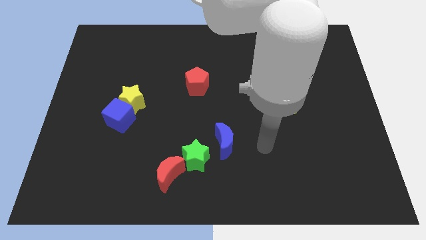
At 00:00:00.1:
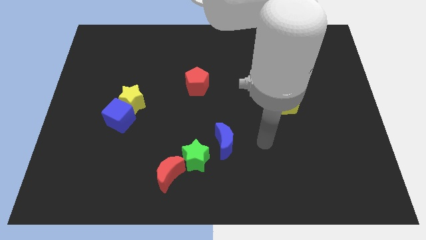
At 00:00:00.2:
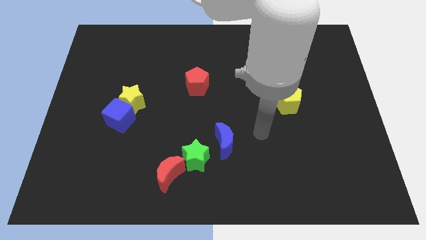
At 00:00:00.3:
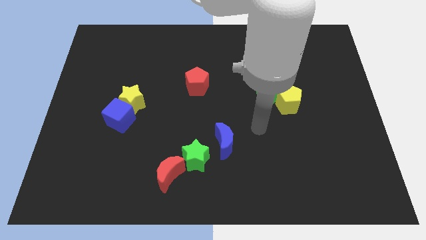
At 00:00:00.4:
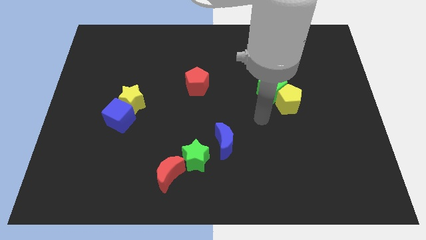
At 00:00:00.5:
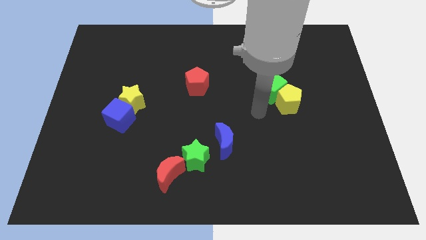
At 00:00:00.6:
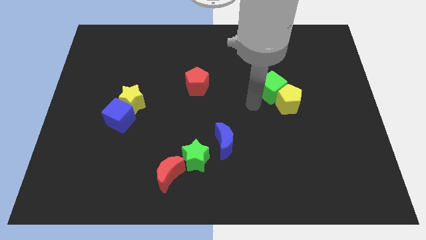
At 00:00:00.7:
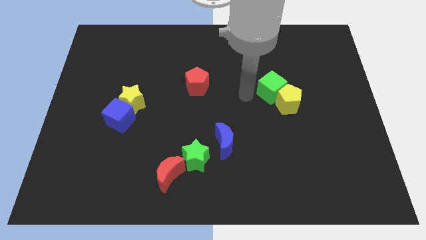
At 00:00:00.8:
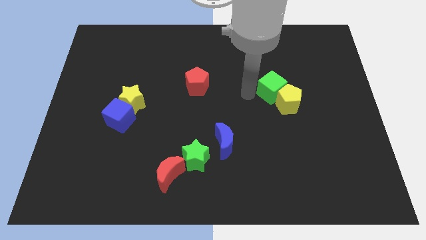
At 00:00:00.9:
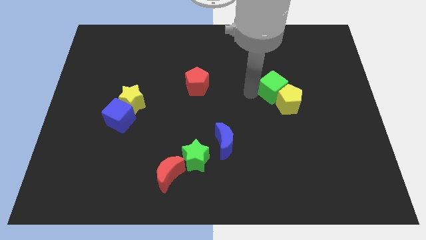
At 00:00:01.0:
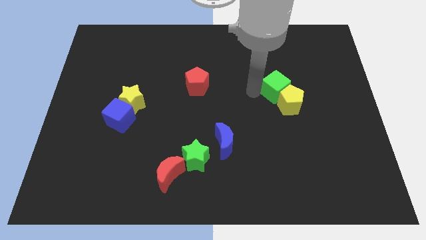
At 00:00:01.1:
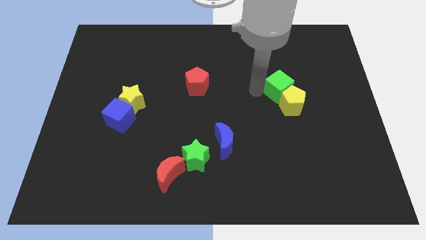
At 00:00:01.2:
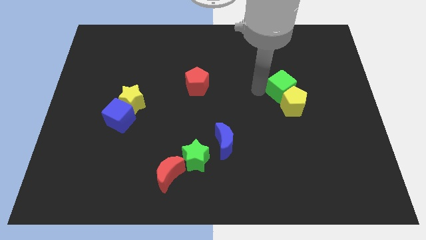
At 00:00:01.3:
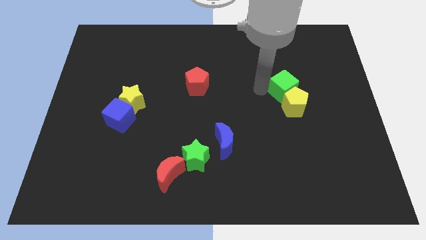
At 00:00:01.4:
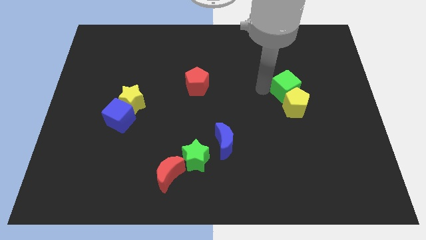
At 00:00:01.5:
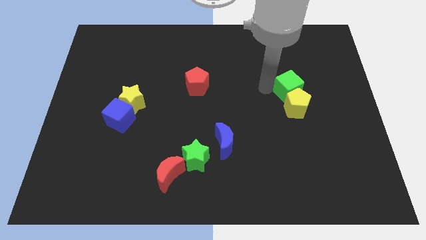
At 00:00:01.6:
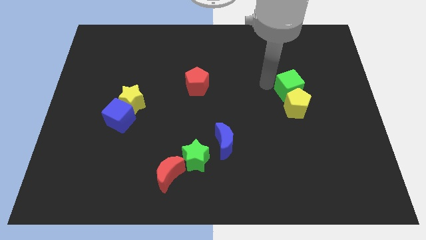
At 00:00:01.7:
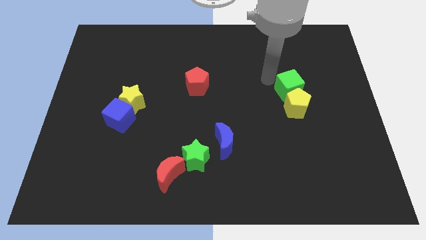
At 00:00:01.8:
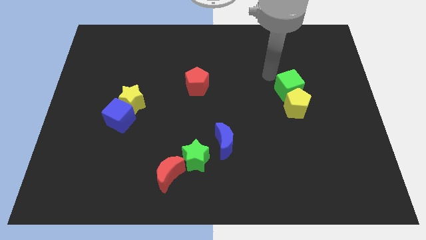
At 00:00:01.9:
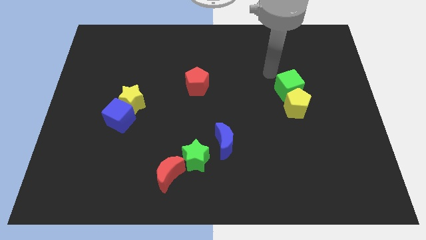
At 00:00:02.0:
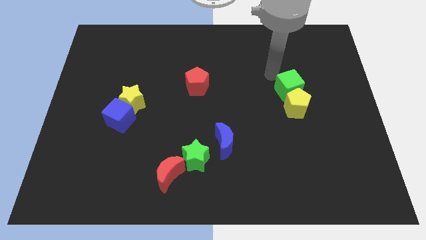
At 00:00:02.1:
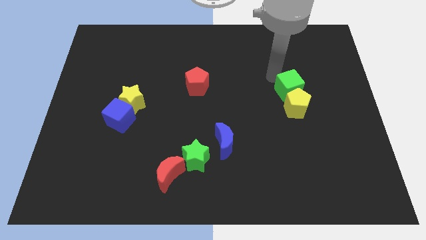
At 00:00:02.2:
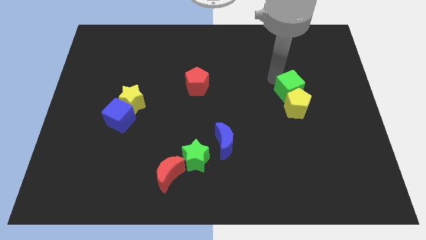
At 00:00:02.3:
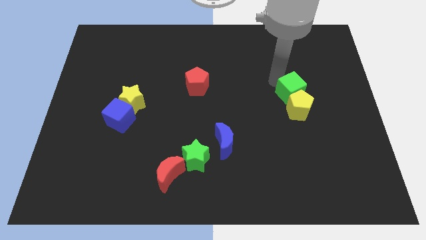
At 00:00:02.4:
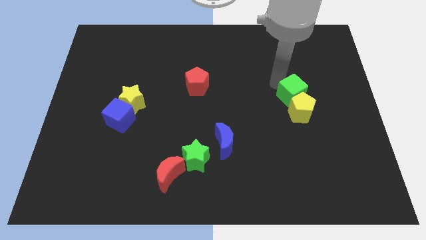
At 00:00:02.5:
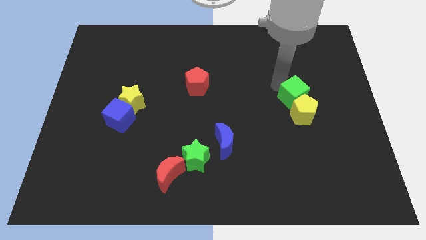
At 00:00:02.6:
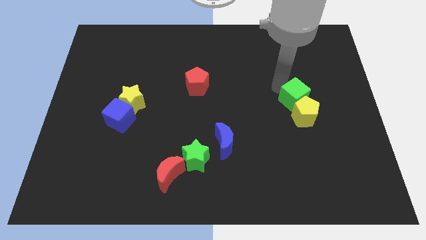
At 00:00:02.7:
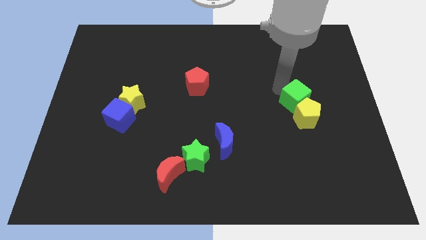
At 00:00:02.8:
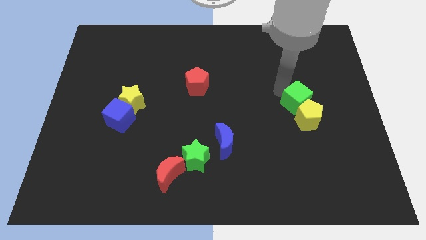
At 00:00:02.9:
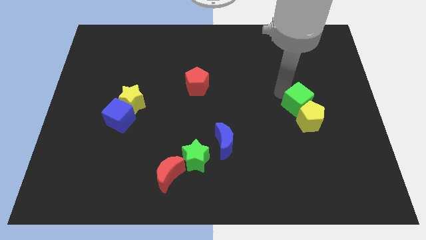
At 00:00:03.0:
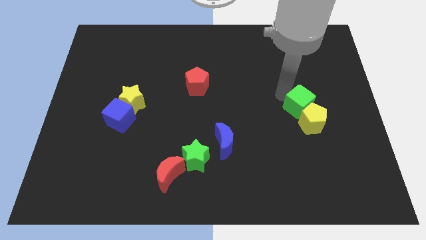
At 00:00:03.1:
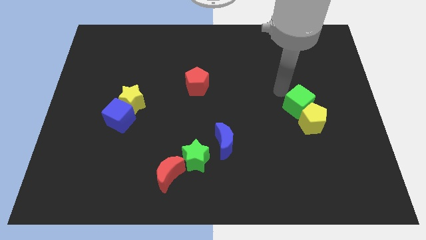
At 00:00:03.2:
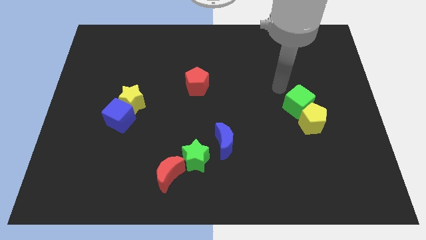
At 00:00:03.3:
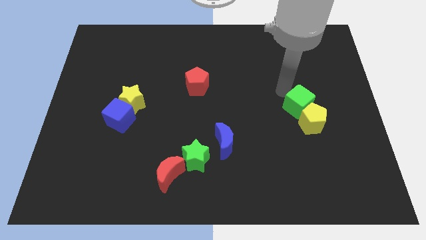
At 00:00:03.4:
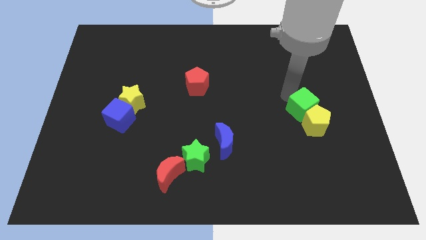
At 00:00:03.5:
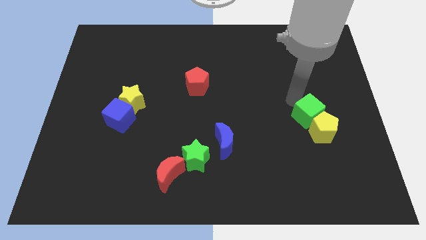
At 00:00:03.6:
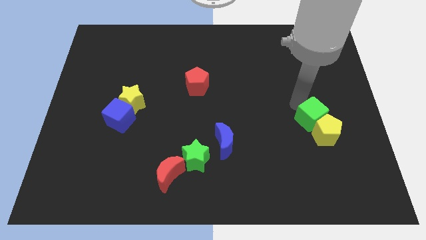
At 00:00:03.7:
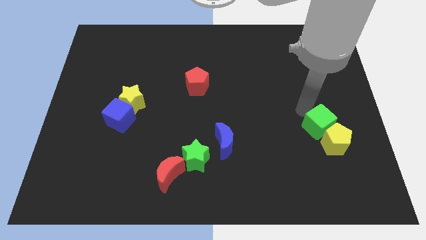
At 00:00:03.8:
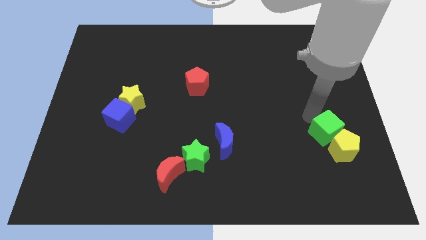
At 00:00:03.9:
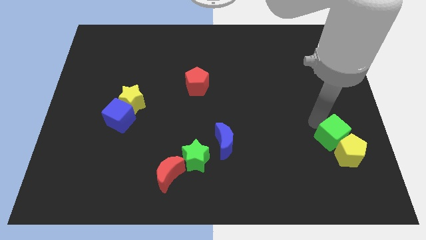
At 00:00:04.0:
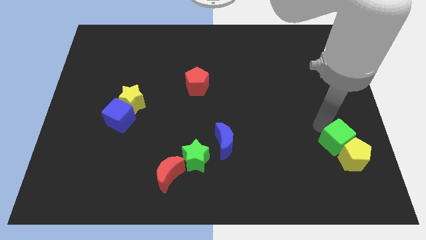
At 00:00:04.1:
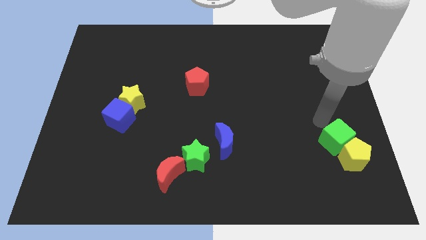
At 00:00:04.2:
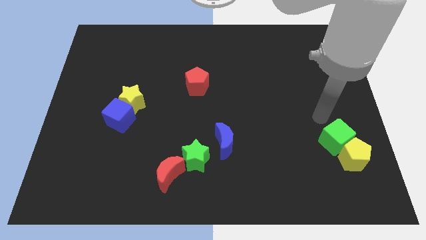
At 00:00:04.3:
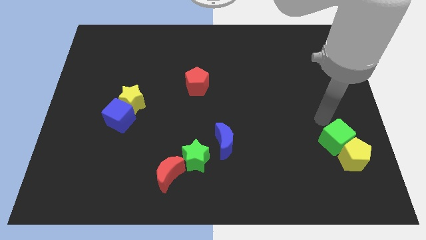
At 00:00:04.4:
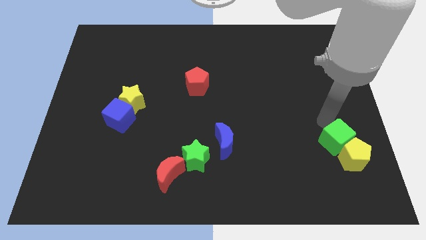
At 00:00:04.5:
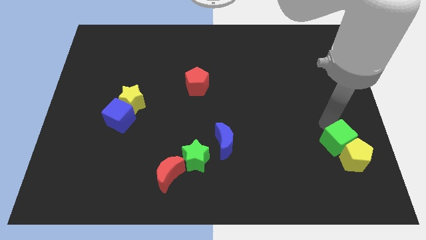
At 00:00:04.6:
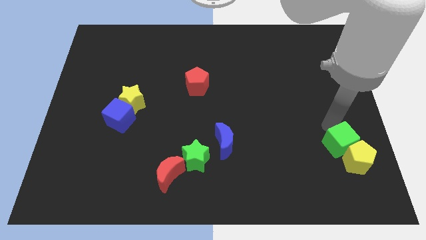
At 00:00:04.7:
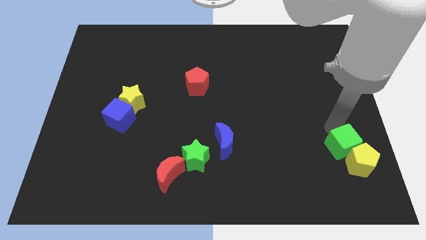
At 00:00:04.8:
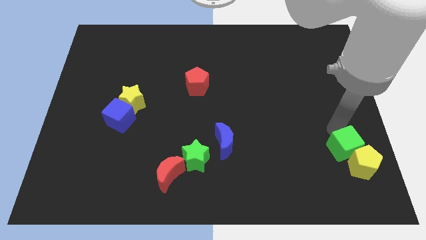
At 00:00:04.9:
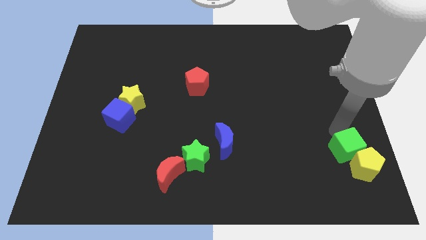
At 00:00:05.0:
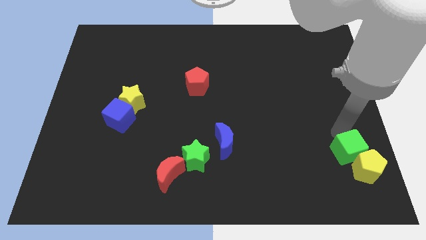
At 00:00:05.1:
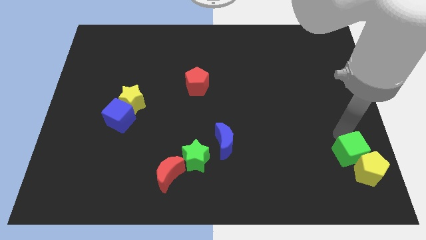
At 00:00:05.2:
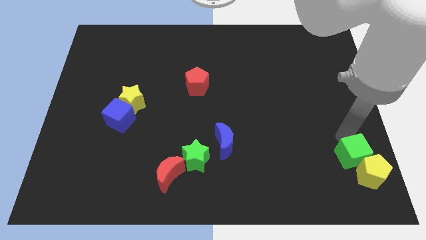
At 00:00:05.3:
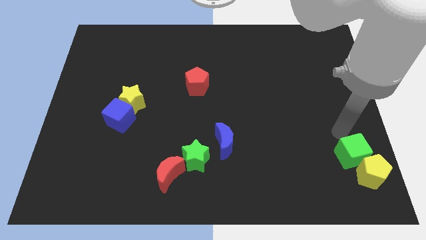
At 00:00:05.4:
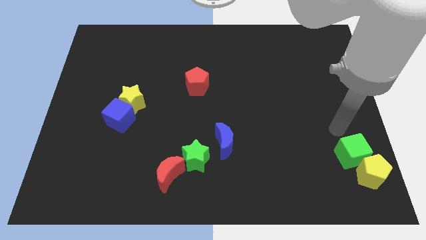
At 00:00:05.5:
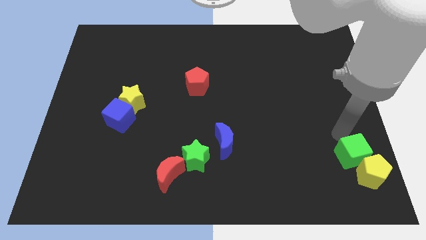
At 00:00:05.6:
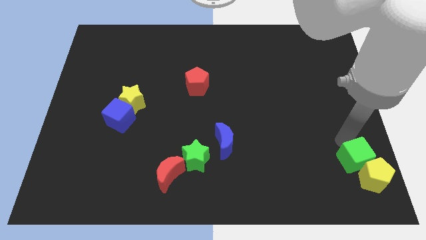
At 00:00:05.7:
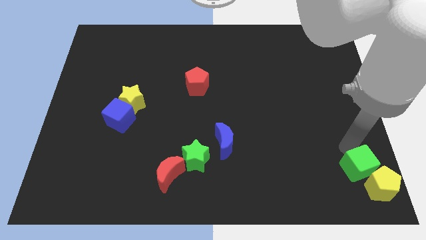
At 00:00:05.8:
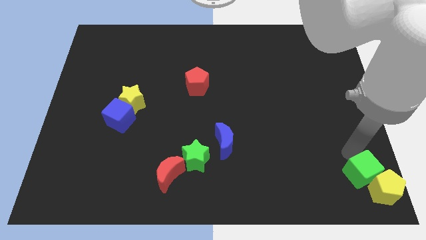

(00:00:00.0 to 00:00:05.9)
move the green cube to the bottom right of the board
